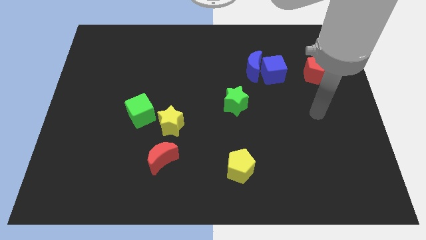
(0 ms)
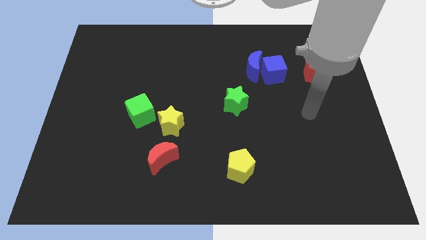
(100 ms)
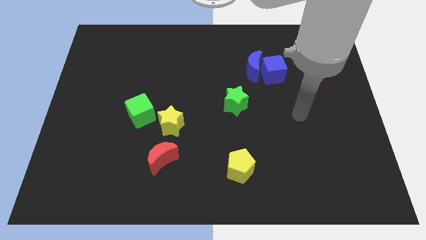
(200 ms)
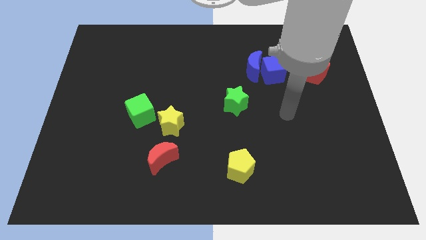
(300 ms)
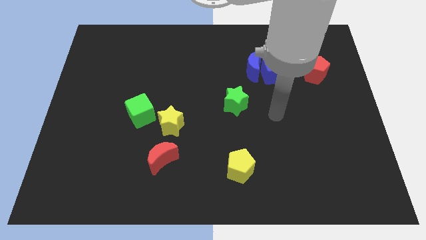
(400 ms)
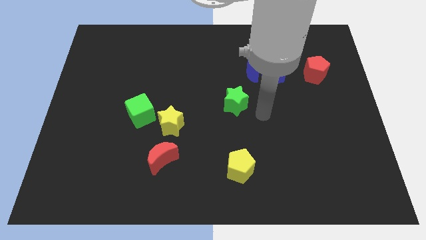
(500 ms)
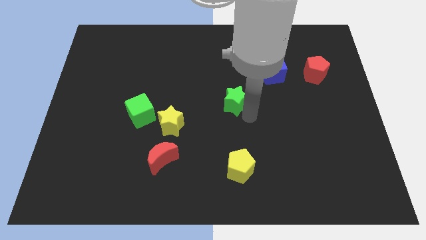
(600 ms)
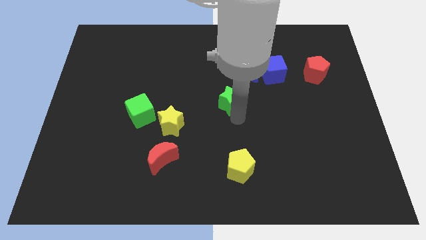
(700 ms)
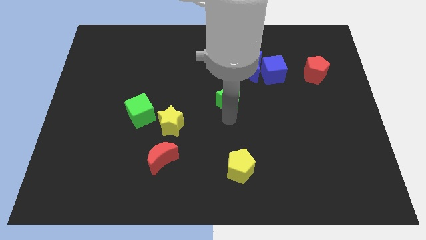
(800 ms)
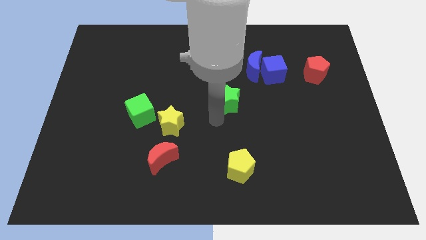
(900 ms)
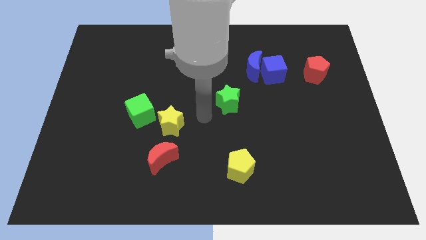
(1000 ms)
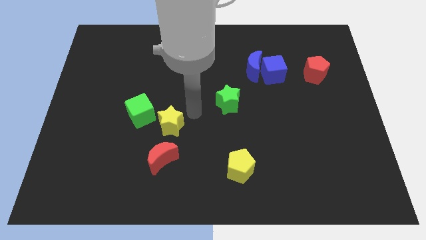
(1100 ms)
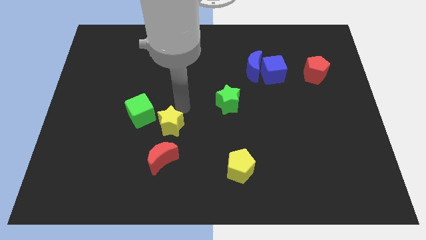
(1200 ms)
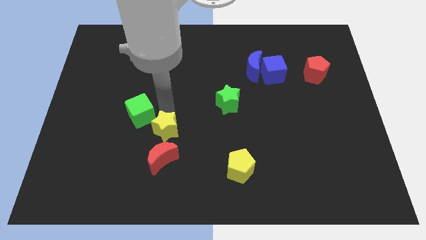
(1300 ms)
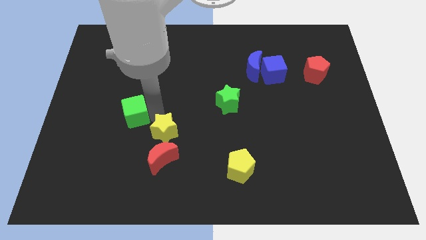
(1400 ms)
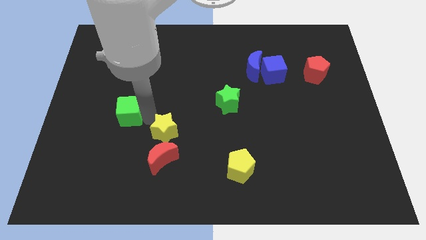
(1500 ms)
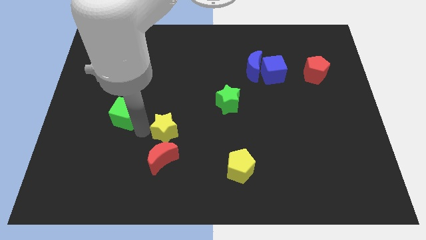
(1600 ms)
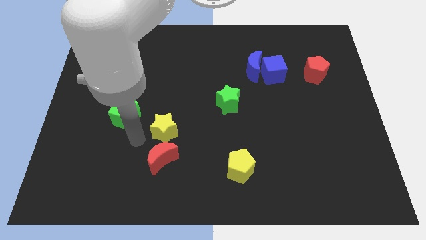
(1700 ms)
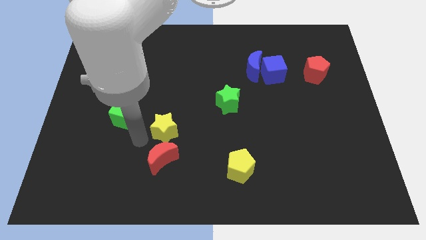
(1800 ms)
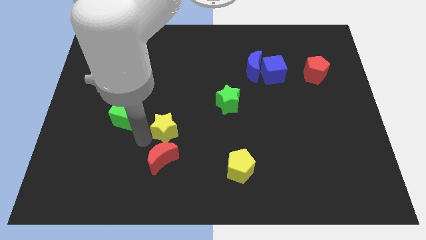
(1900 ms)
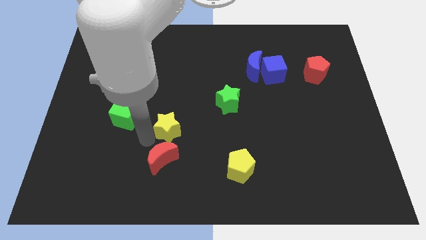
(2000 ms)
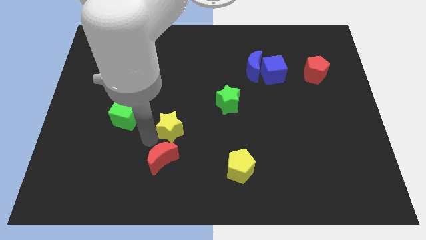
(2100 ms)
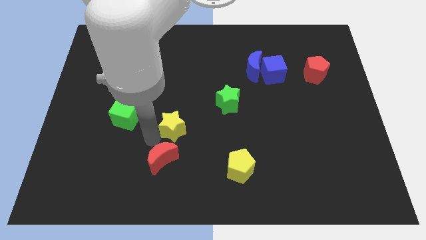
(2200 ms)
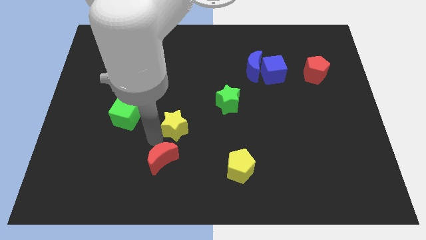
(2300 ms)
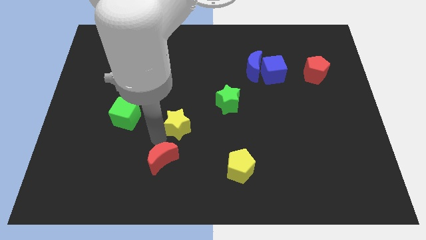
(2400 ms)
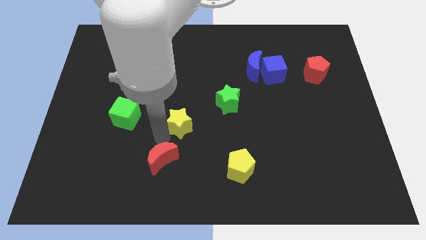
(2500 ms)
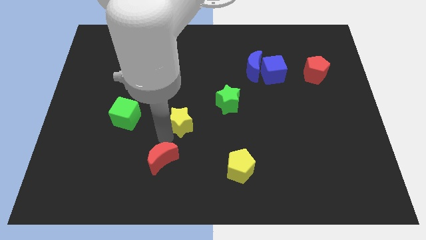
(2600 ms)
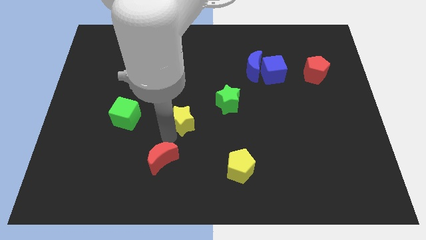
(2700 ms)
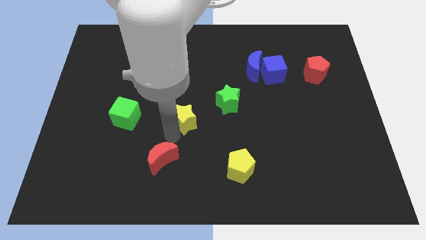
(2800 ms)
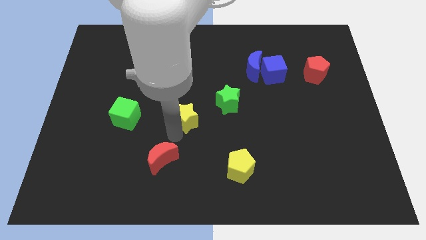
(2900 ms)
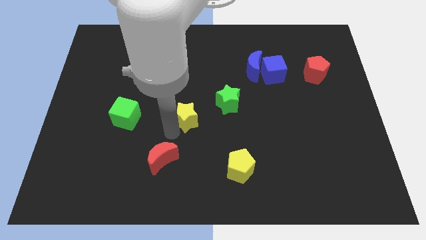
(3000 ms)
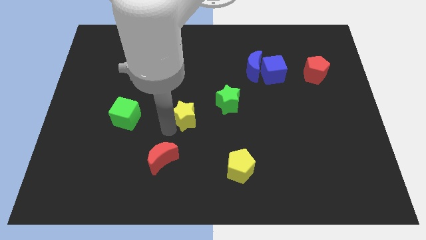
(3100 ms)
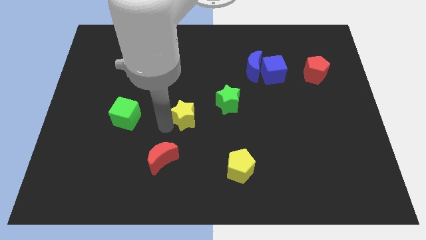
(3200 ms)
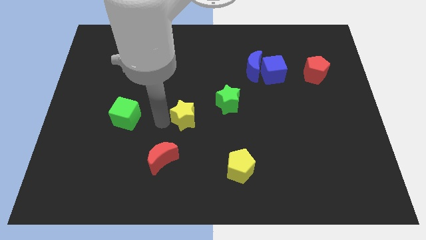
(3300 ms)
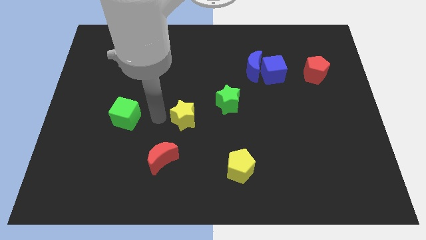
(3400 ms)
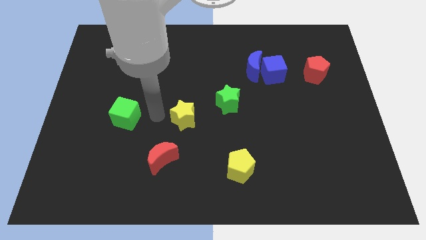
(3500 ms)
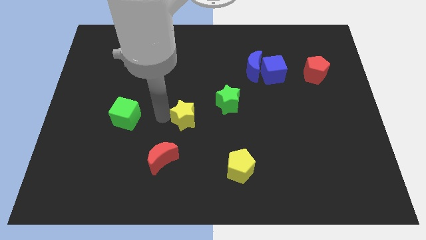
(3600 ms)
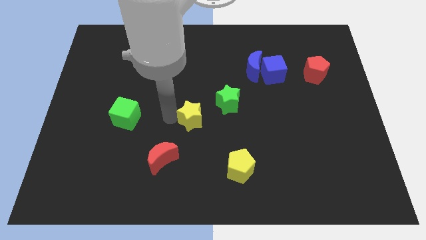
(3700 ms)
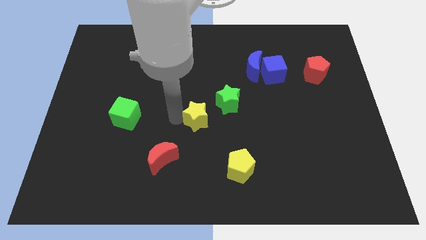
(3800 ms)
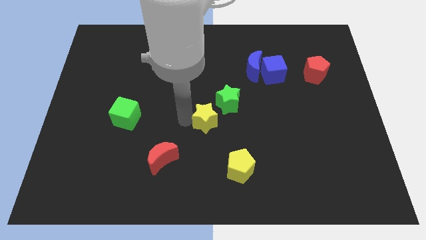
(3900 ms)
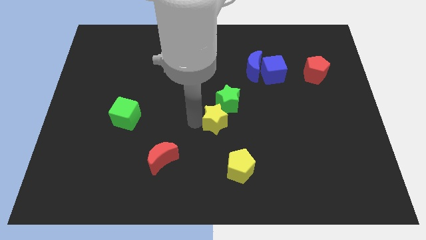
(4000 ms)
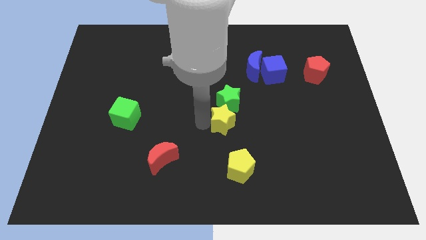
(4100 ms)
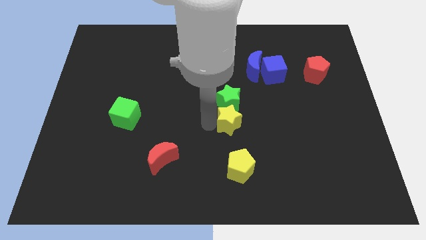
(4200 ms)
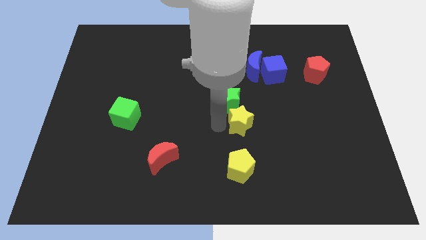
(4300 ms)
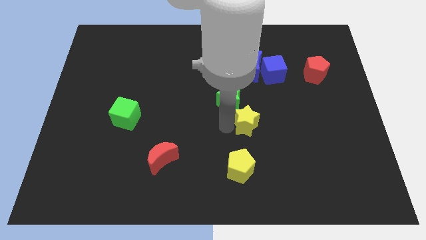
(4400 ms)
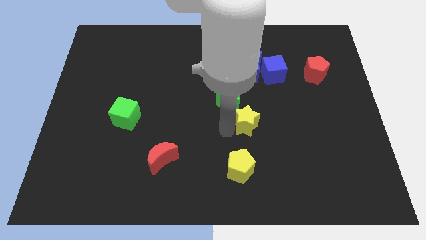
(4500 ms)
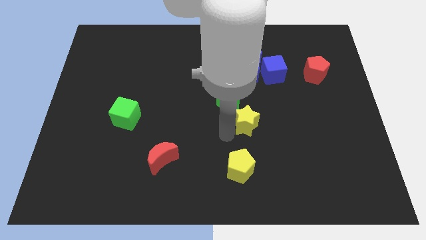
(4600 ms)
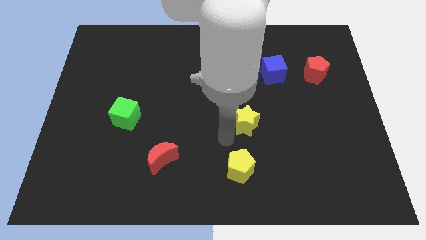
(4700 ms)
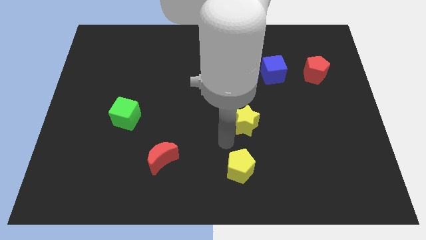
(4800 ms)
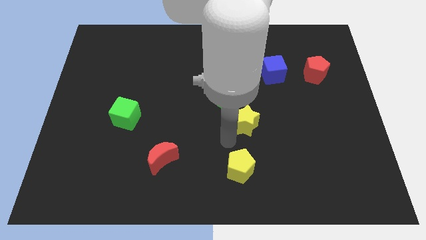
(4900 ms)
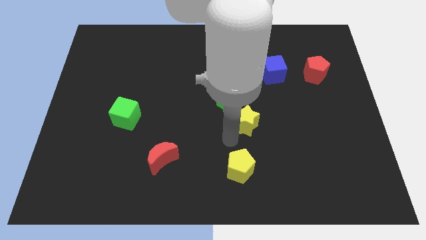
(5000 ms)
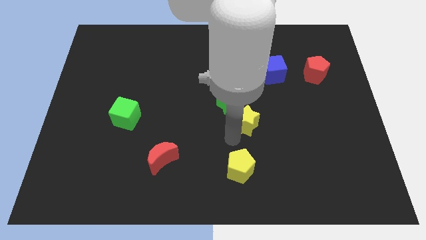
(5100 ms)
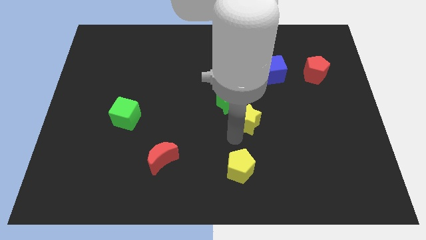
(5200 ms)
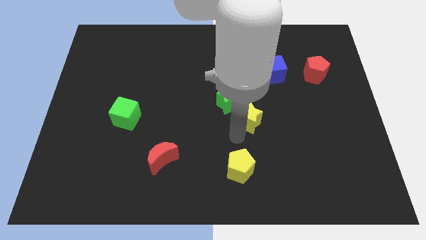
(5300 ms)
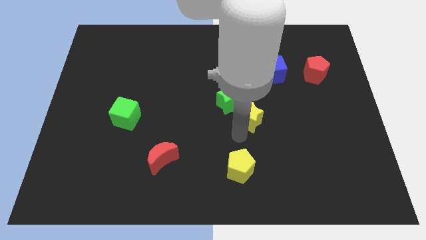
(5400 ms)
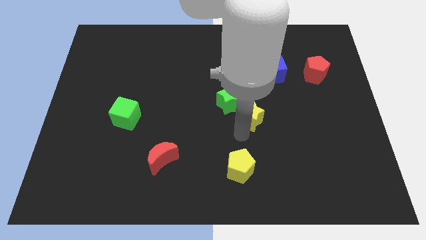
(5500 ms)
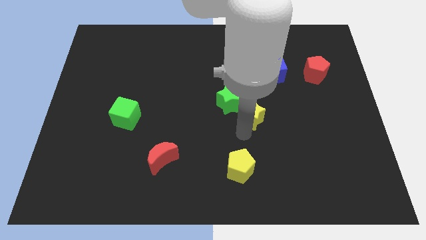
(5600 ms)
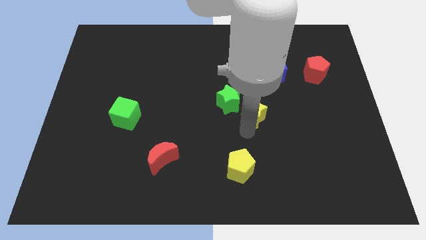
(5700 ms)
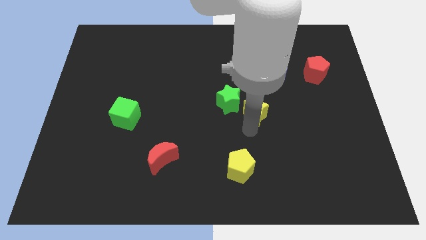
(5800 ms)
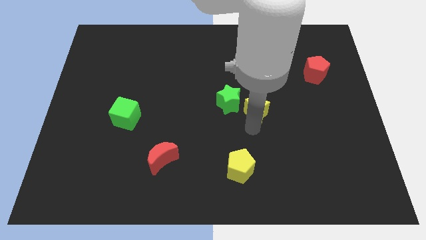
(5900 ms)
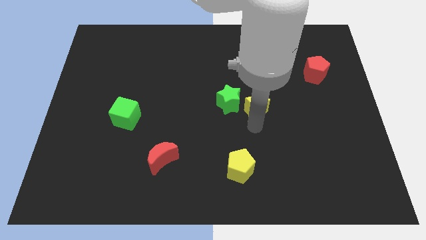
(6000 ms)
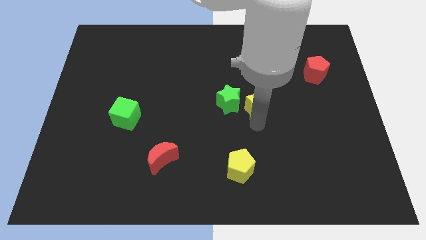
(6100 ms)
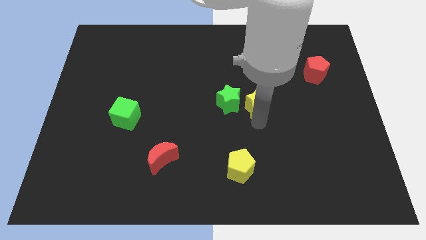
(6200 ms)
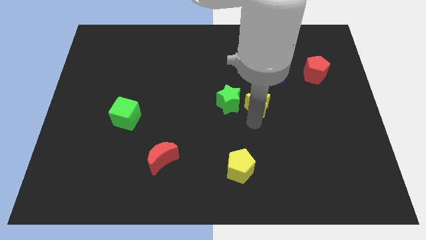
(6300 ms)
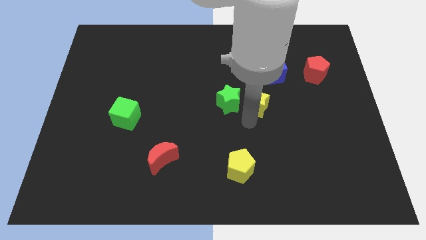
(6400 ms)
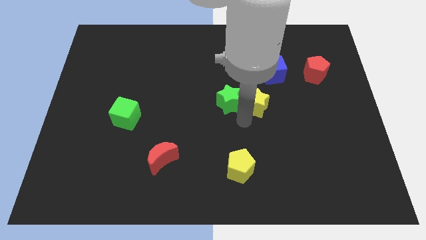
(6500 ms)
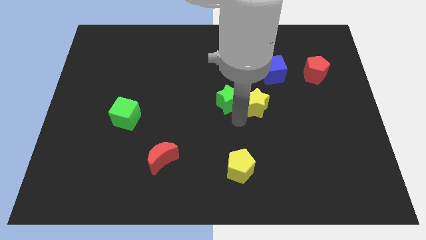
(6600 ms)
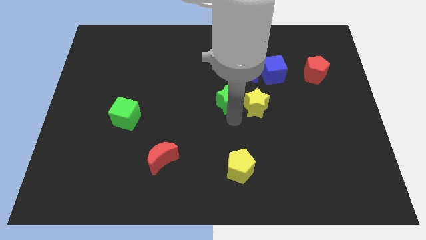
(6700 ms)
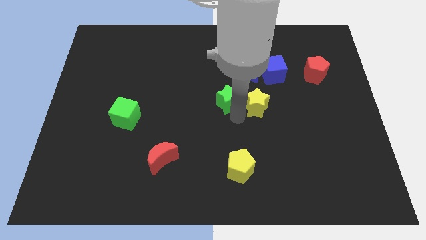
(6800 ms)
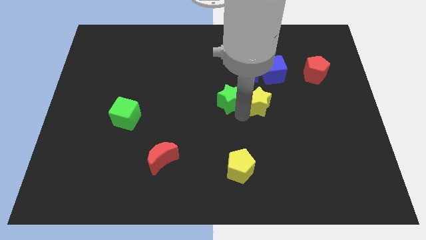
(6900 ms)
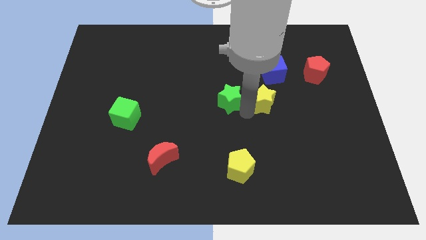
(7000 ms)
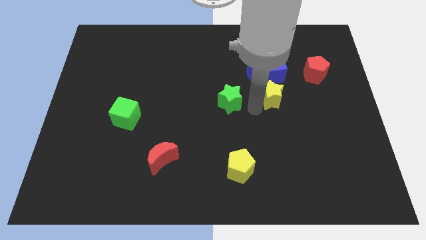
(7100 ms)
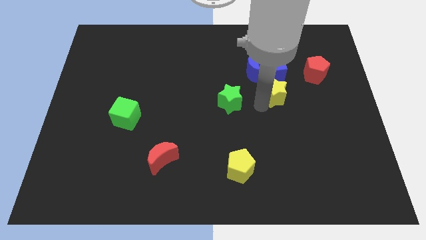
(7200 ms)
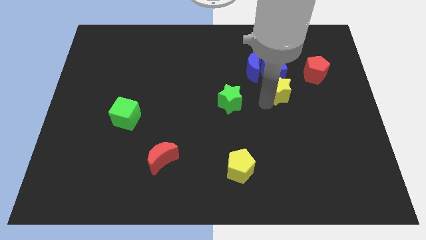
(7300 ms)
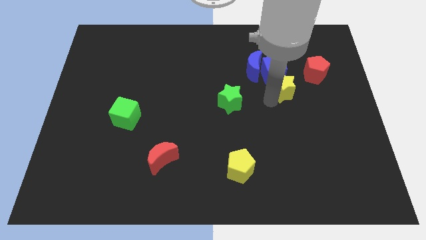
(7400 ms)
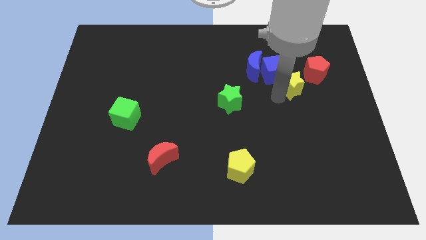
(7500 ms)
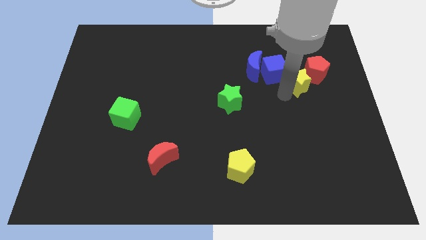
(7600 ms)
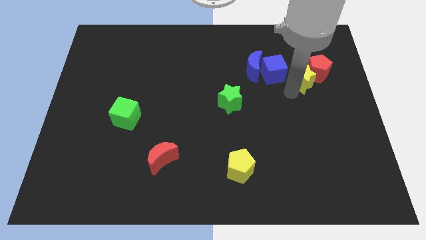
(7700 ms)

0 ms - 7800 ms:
put the yellow star to the right of the blue moon
